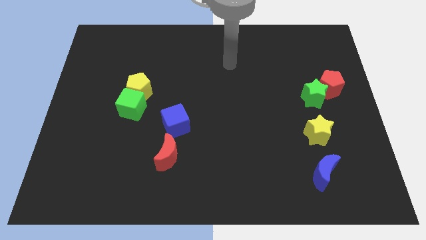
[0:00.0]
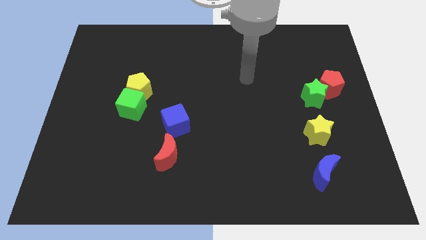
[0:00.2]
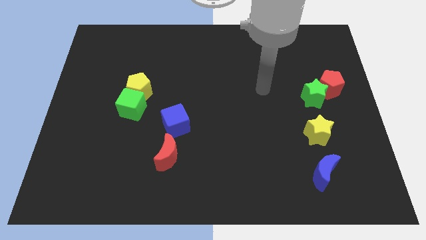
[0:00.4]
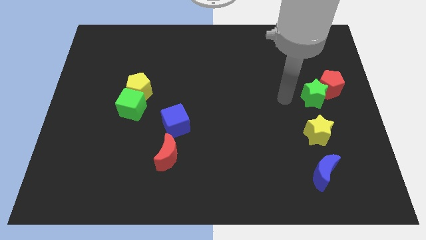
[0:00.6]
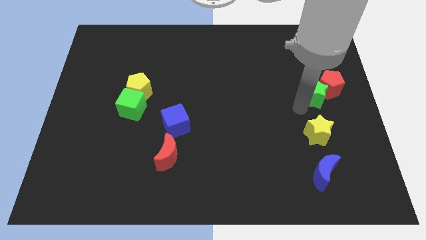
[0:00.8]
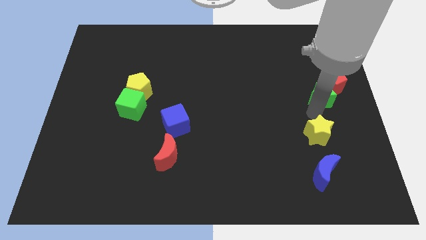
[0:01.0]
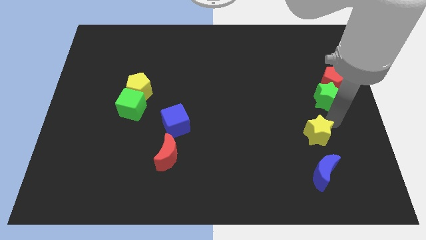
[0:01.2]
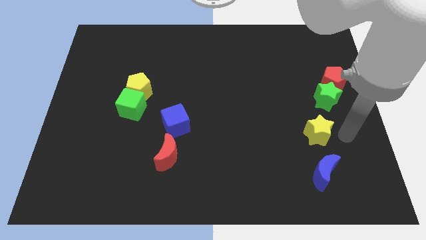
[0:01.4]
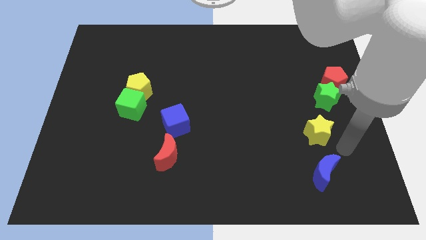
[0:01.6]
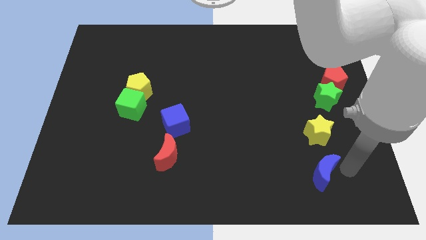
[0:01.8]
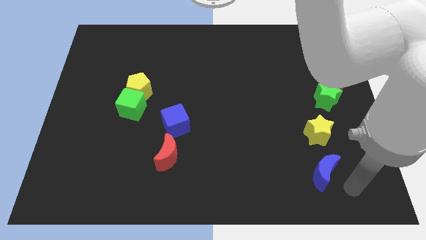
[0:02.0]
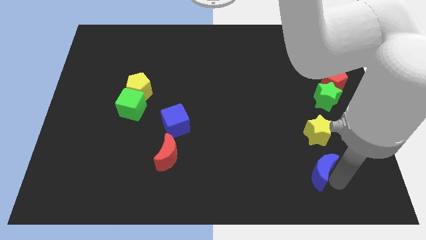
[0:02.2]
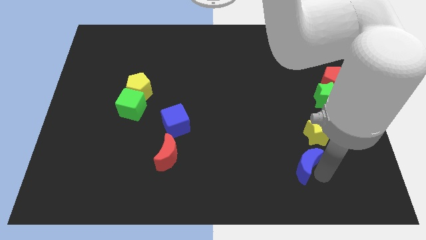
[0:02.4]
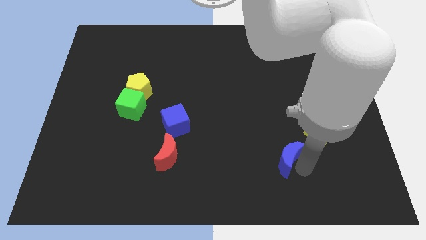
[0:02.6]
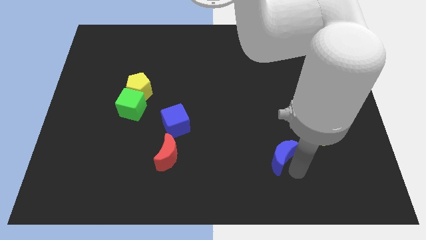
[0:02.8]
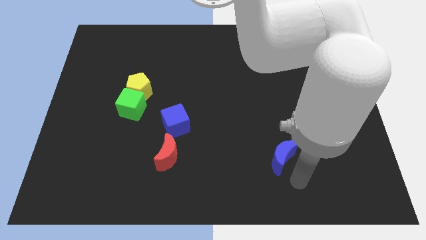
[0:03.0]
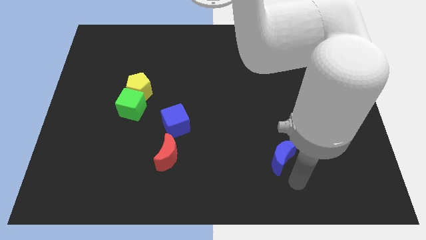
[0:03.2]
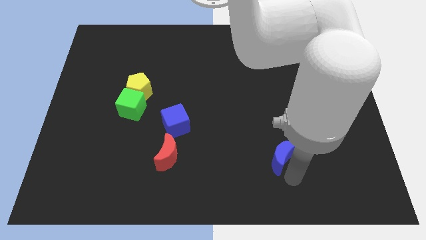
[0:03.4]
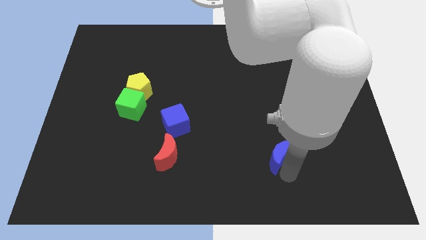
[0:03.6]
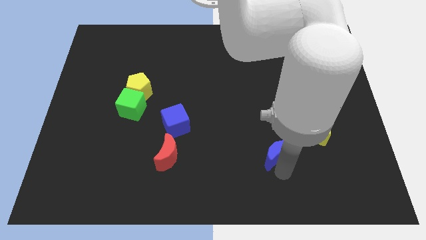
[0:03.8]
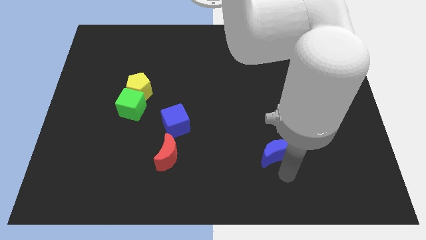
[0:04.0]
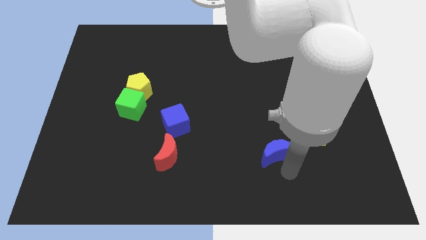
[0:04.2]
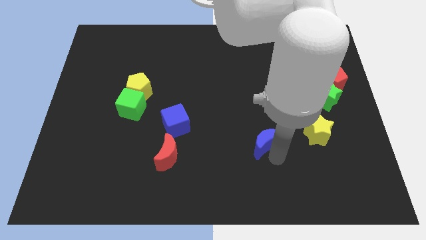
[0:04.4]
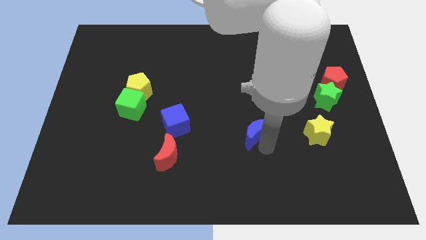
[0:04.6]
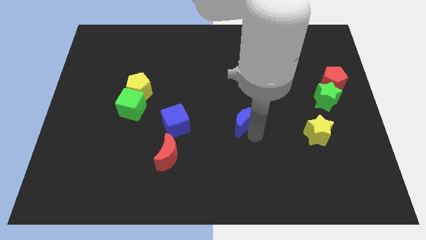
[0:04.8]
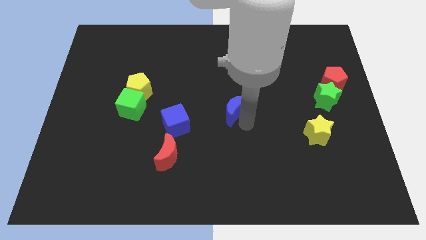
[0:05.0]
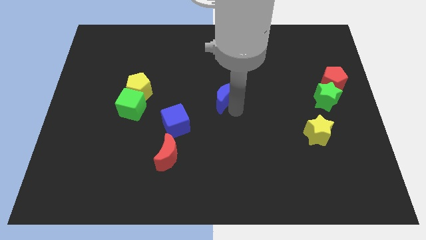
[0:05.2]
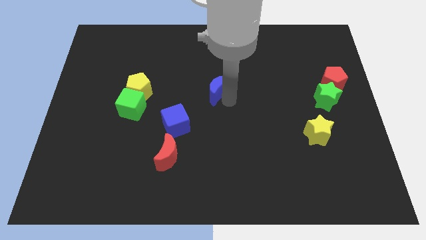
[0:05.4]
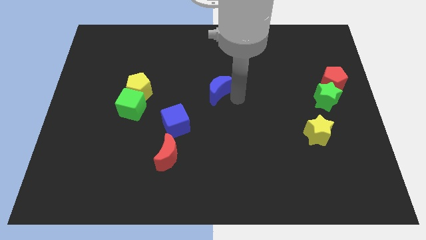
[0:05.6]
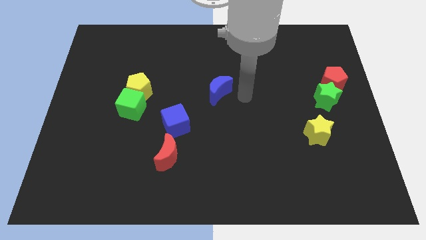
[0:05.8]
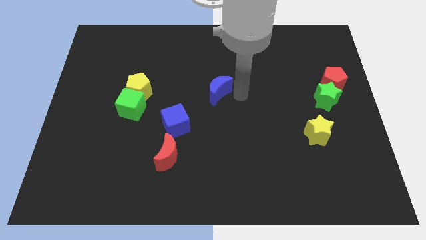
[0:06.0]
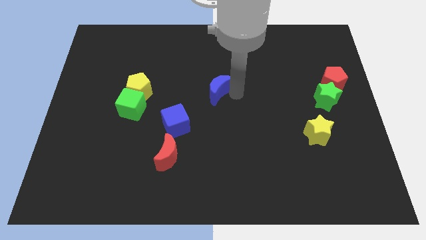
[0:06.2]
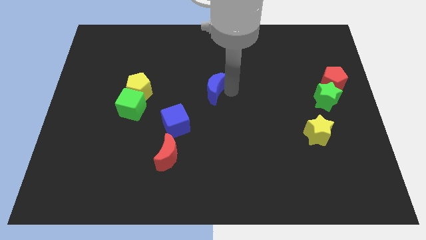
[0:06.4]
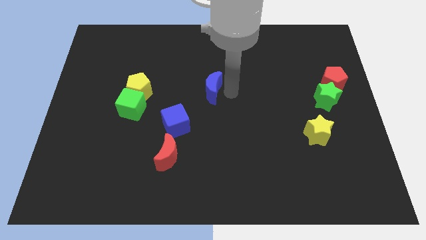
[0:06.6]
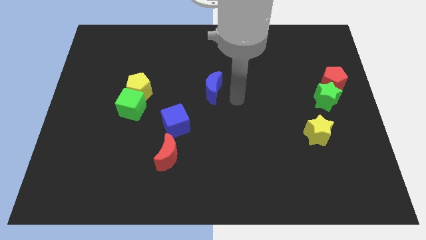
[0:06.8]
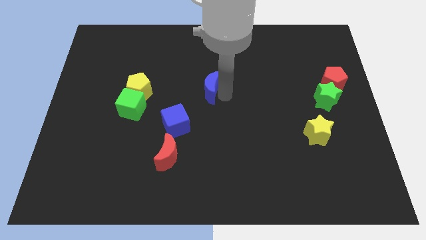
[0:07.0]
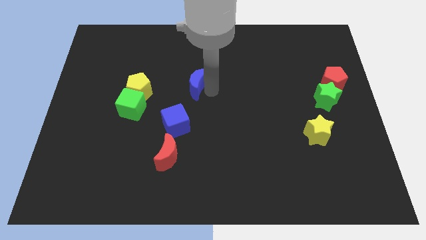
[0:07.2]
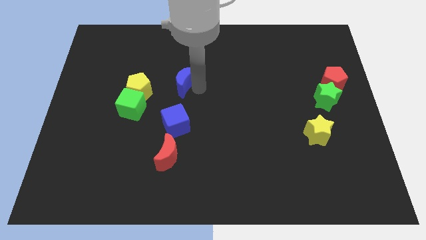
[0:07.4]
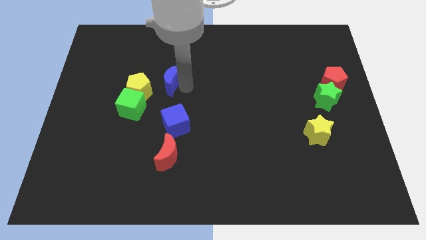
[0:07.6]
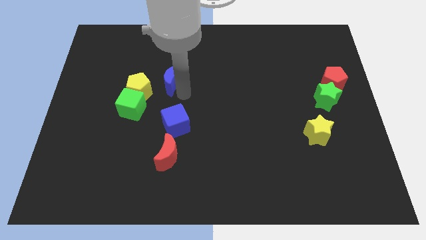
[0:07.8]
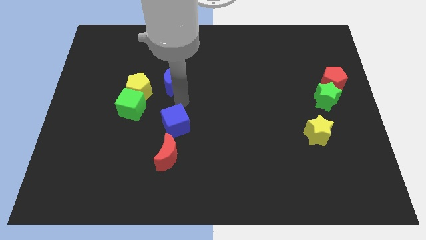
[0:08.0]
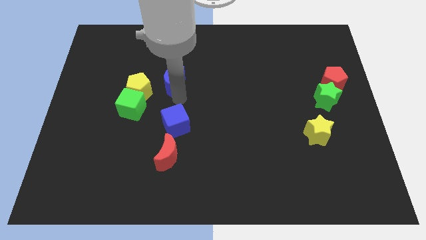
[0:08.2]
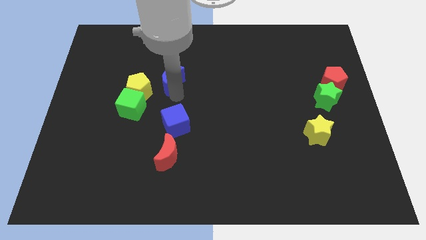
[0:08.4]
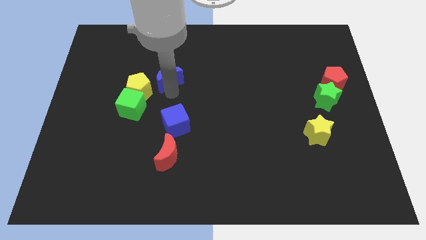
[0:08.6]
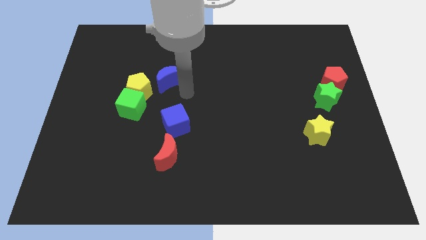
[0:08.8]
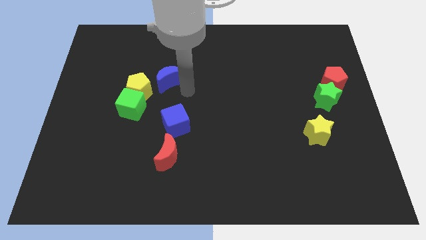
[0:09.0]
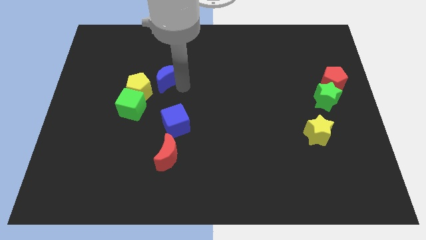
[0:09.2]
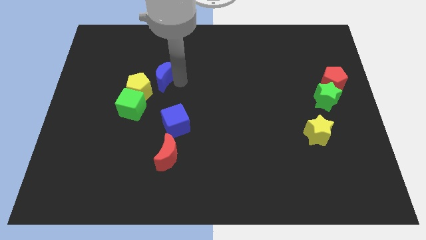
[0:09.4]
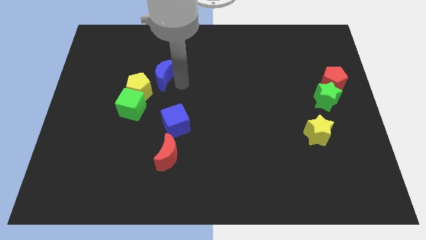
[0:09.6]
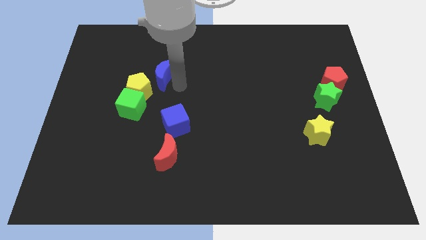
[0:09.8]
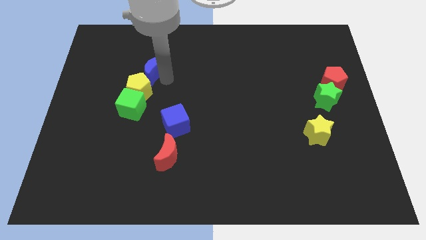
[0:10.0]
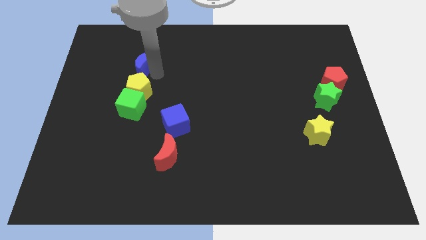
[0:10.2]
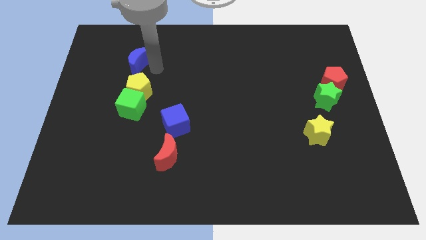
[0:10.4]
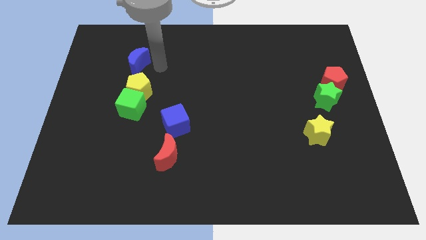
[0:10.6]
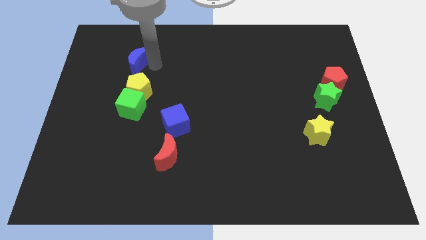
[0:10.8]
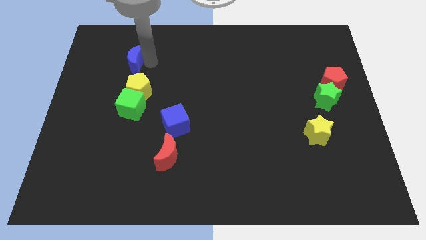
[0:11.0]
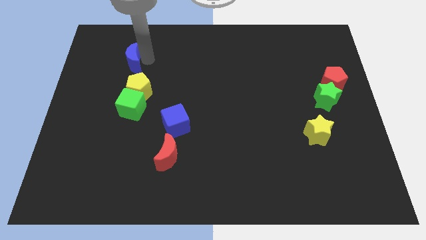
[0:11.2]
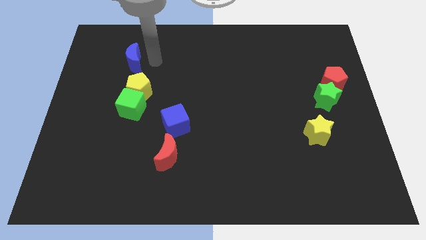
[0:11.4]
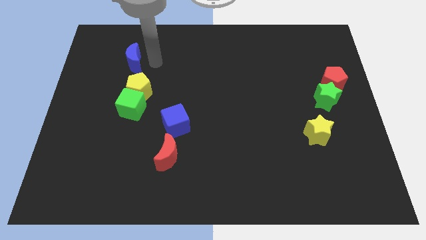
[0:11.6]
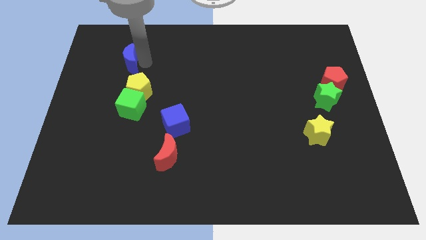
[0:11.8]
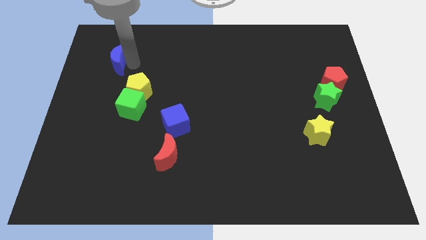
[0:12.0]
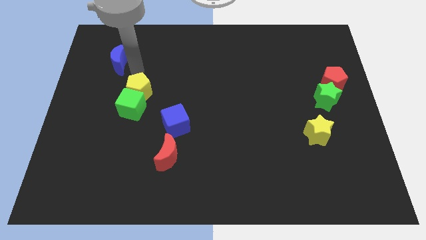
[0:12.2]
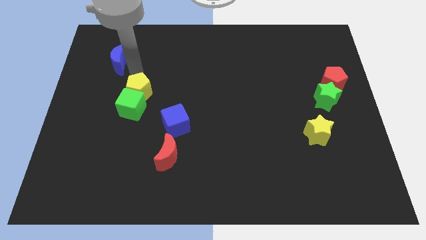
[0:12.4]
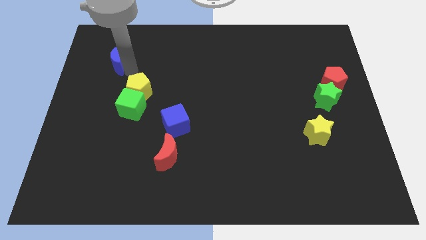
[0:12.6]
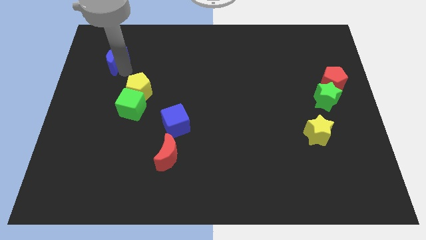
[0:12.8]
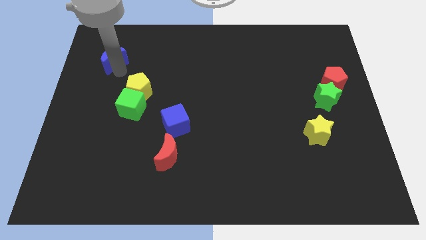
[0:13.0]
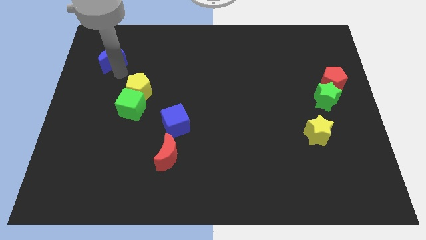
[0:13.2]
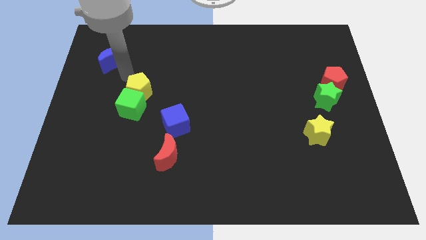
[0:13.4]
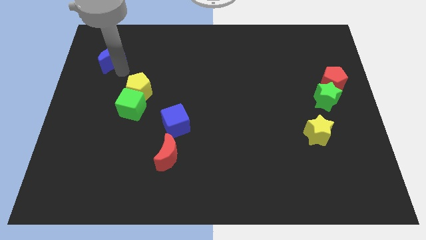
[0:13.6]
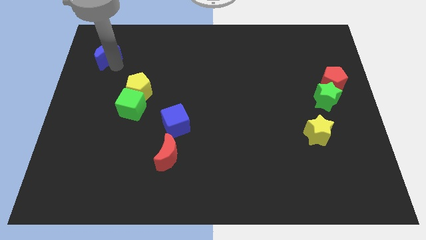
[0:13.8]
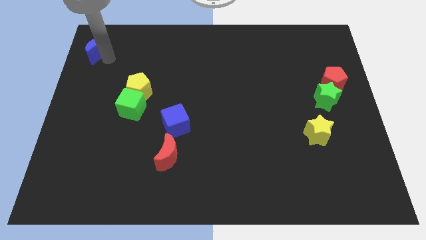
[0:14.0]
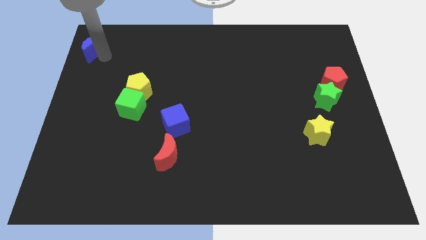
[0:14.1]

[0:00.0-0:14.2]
slide the blue moon to the upper left corner
